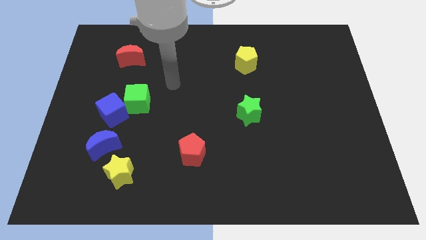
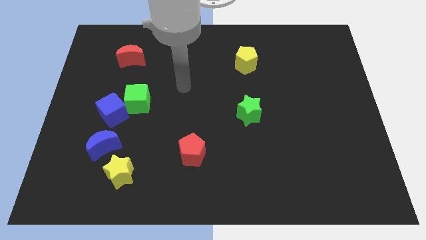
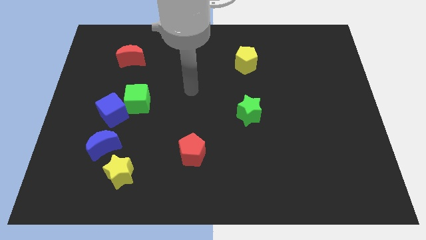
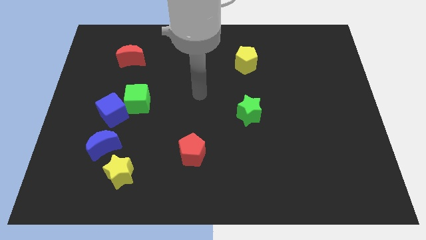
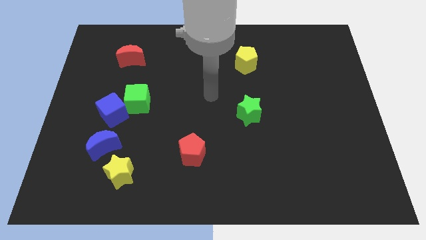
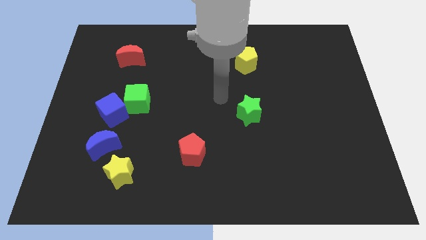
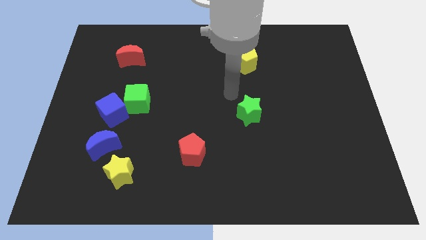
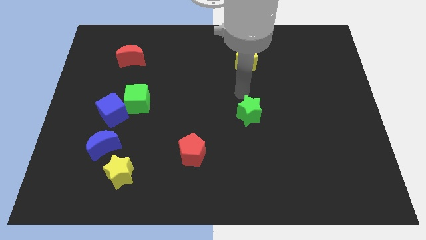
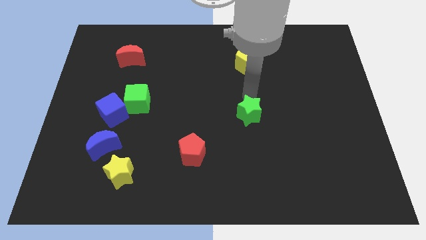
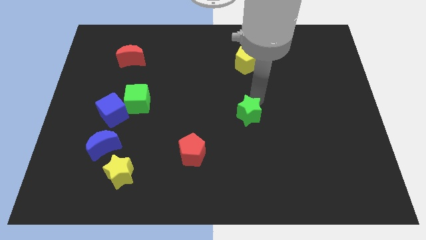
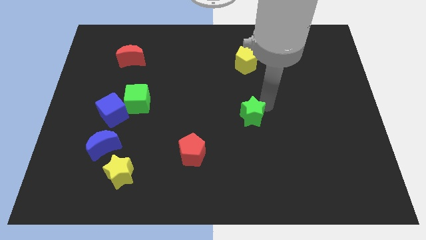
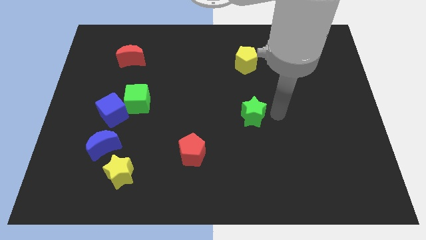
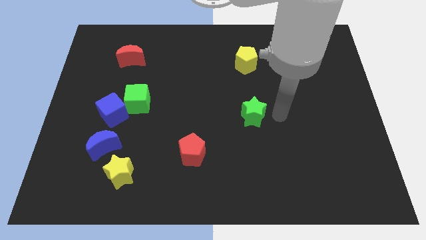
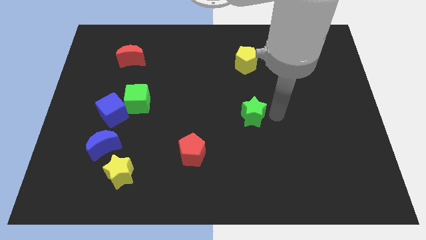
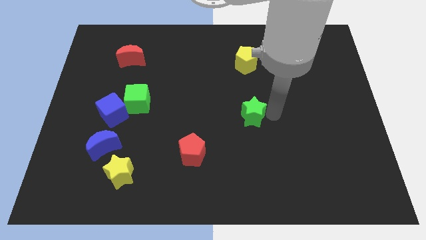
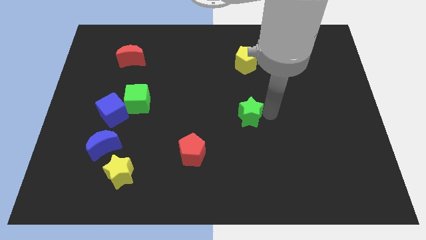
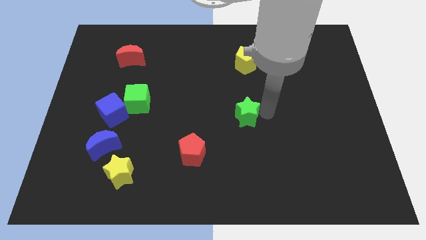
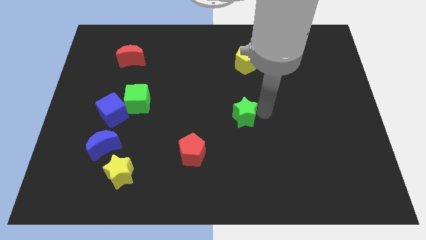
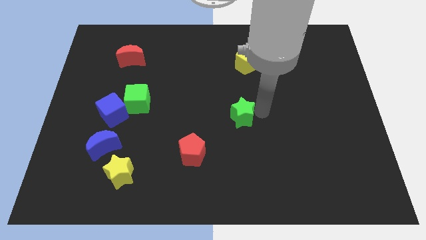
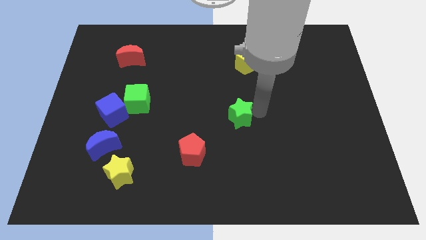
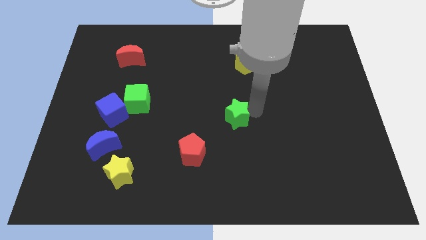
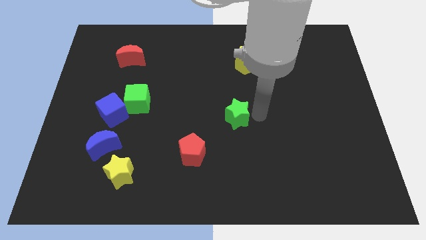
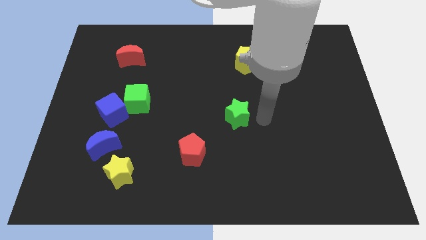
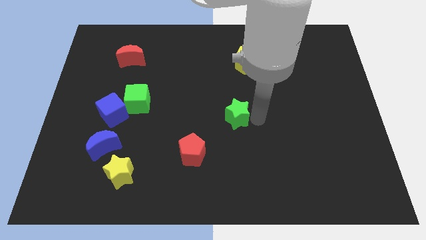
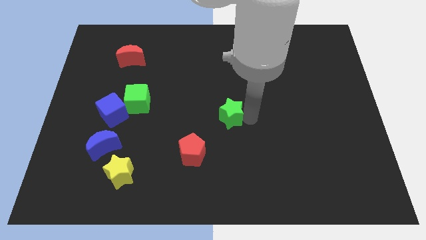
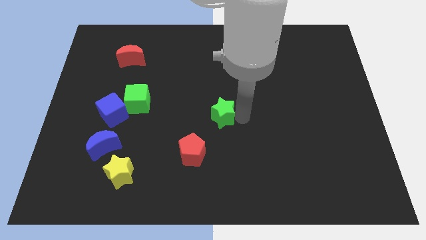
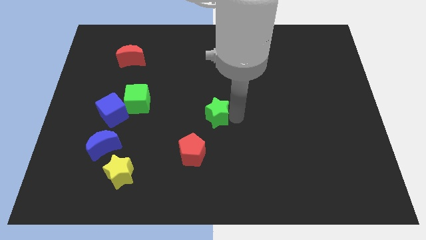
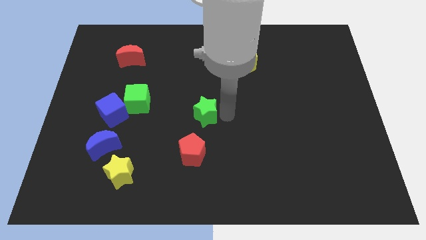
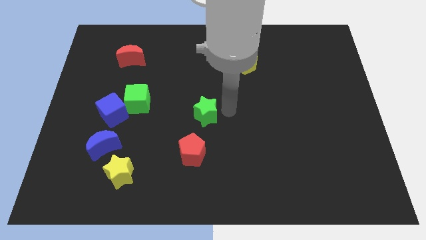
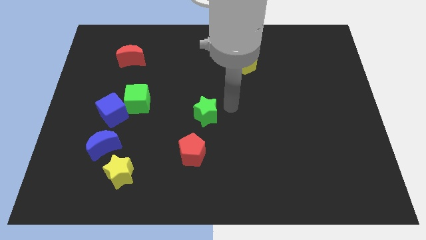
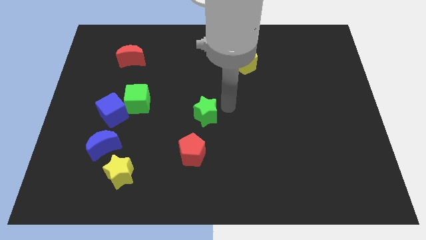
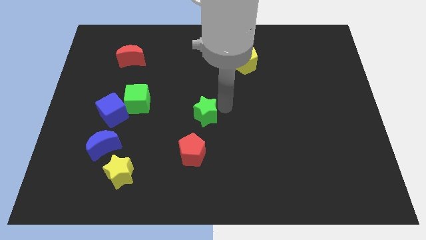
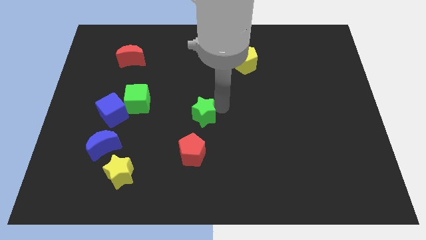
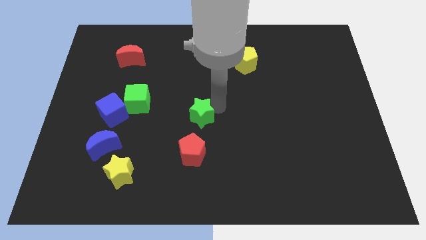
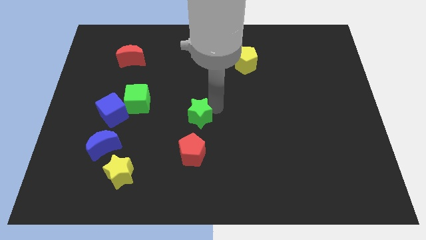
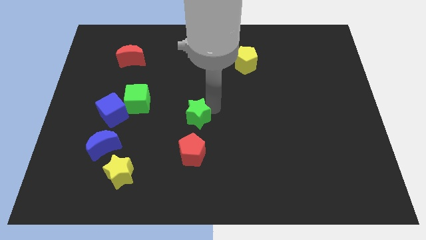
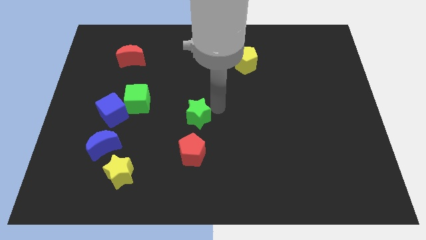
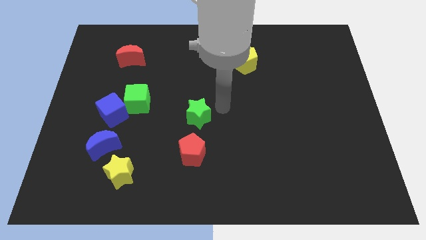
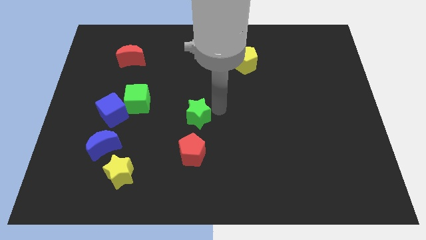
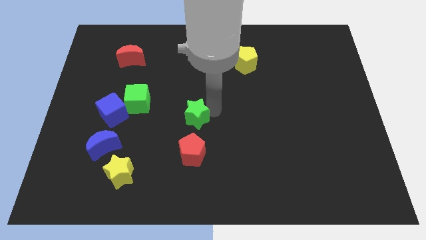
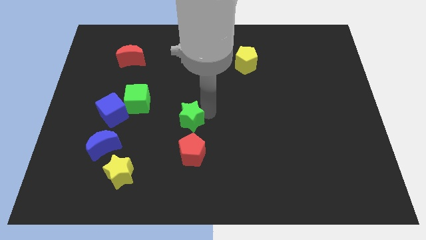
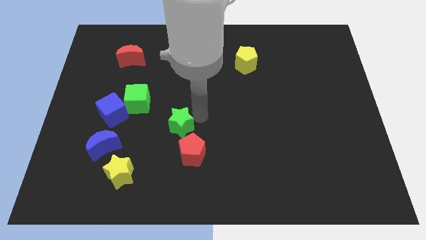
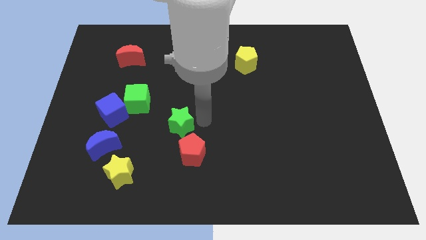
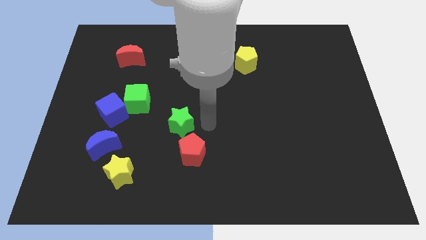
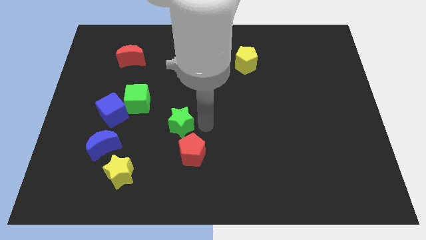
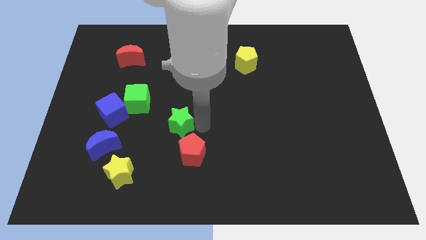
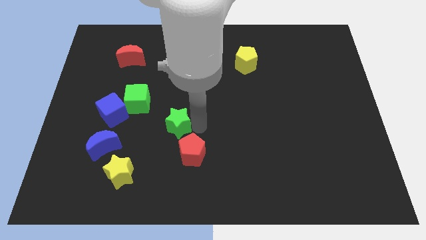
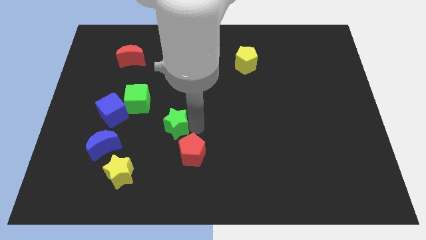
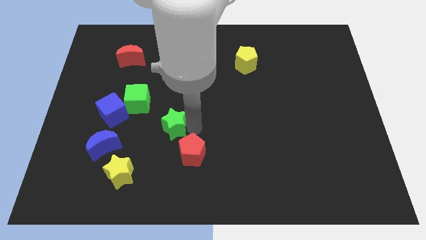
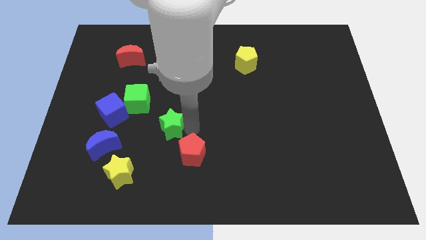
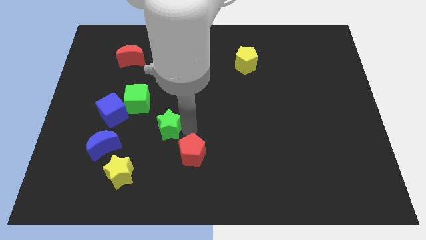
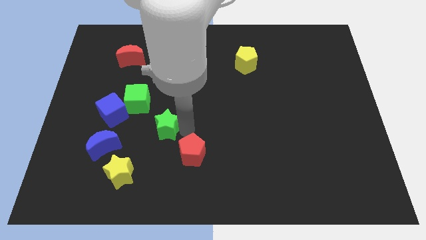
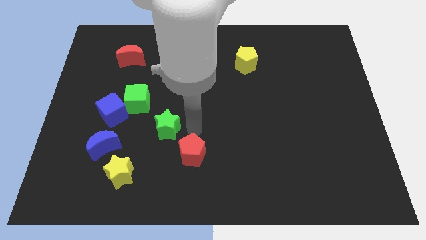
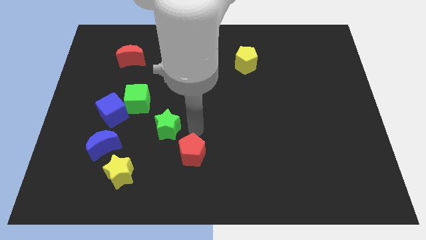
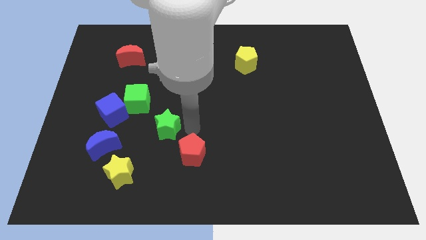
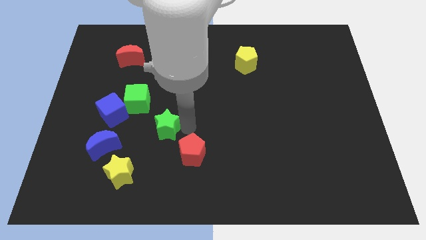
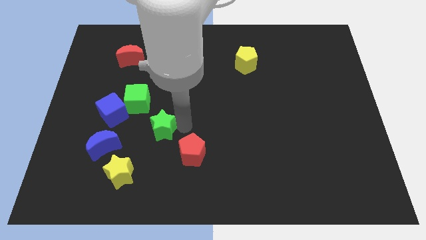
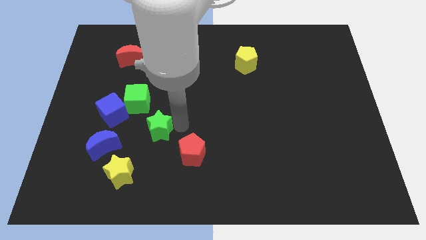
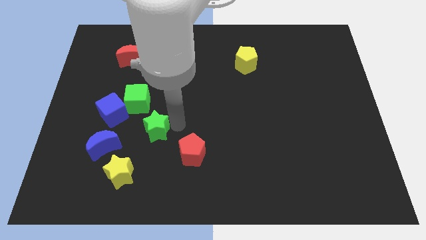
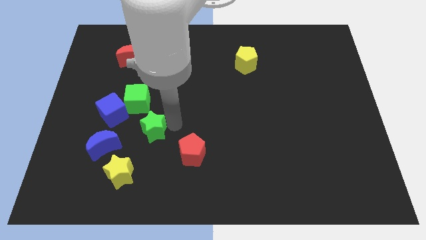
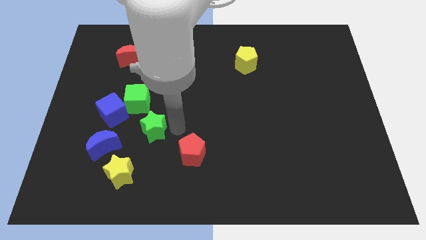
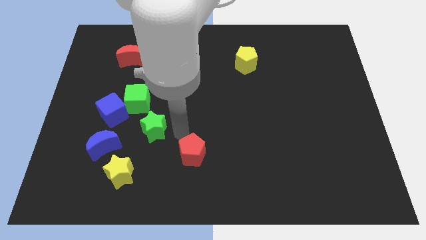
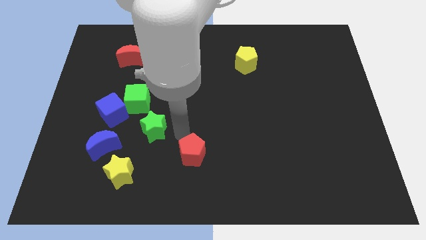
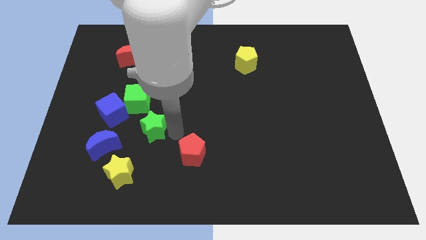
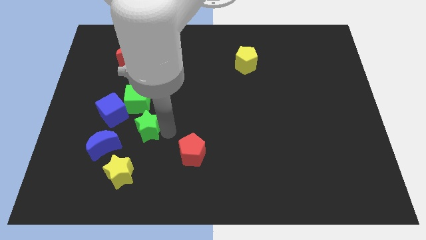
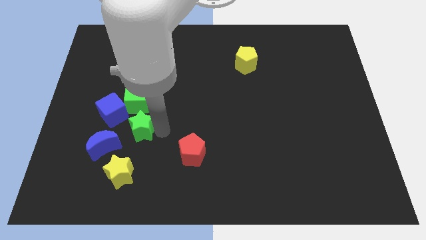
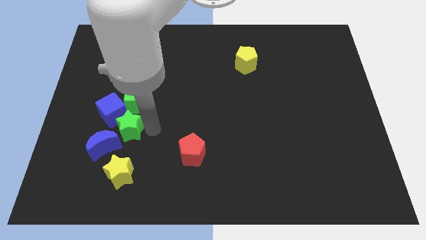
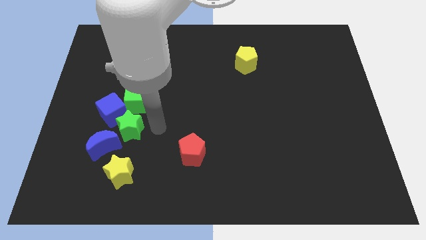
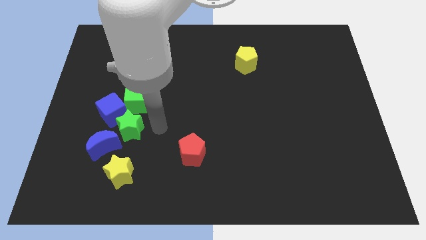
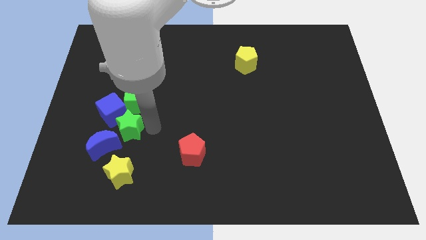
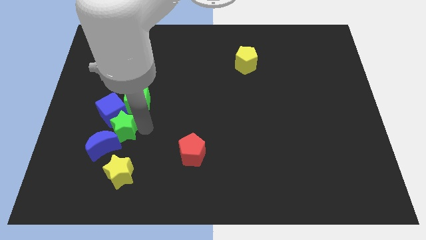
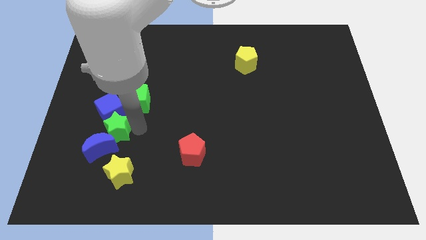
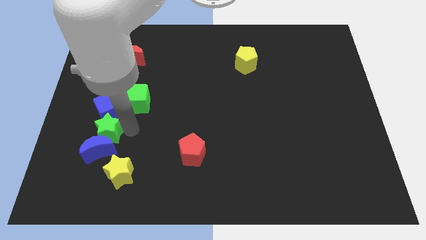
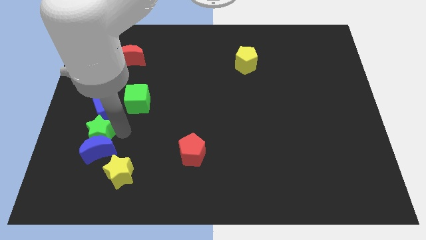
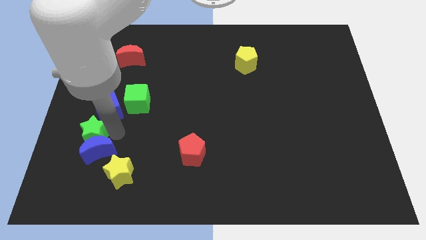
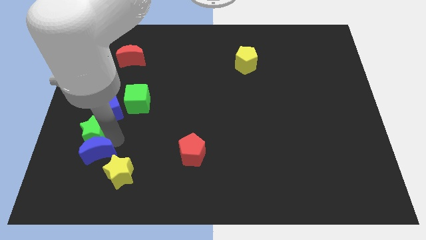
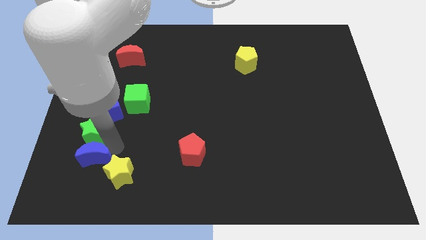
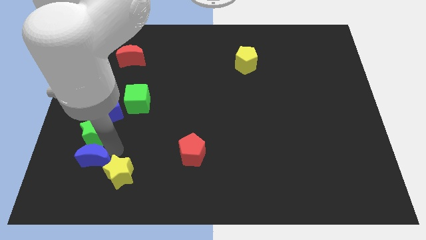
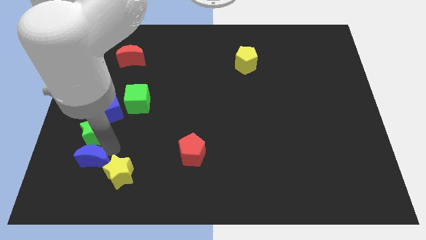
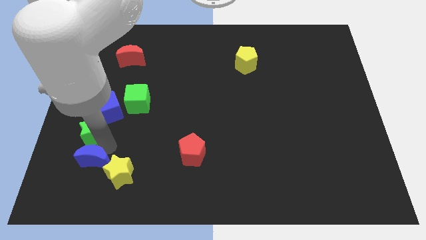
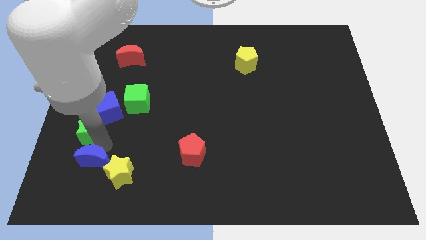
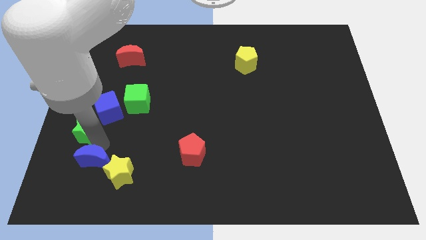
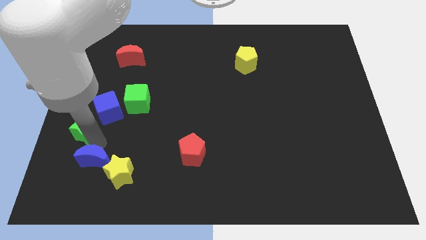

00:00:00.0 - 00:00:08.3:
push the green star to the center left
